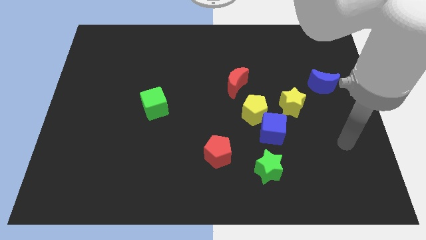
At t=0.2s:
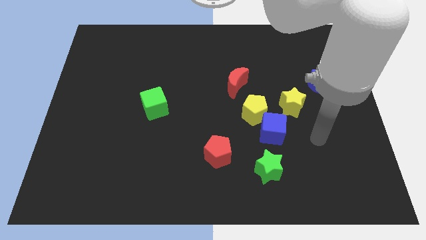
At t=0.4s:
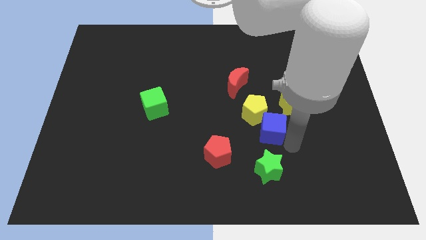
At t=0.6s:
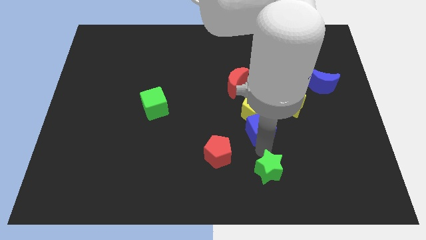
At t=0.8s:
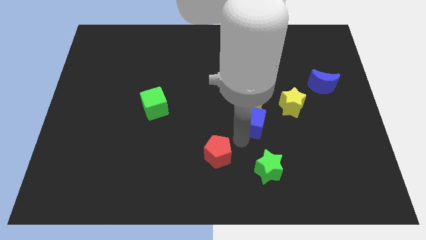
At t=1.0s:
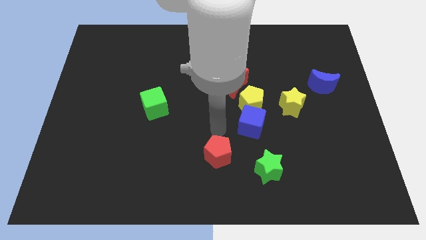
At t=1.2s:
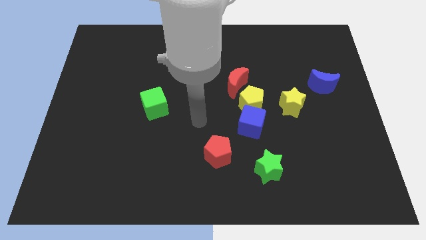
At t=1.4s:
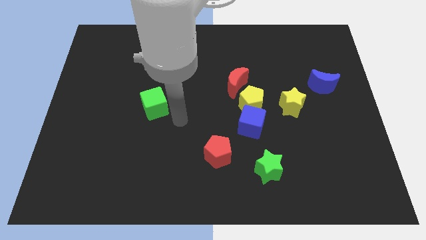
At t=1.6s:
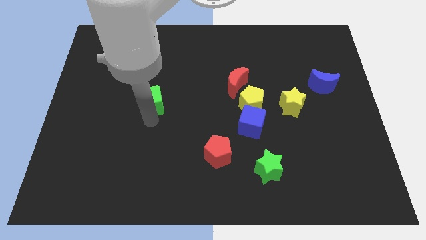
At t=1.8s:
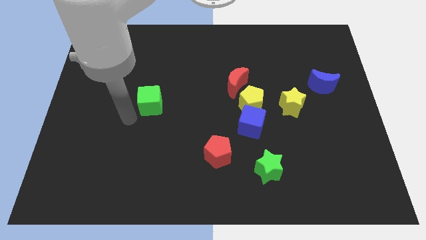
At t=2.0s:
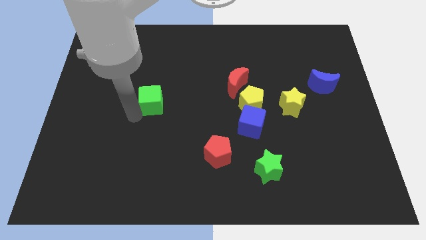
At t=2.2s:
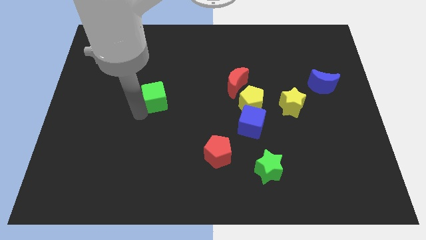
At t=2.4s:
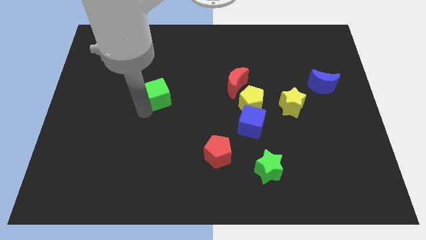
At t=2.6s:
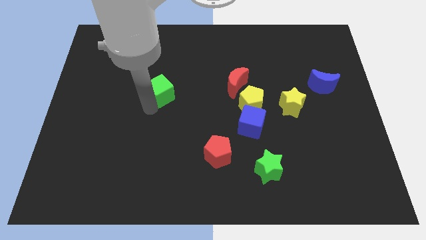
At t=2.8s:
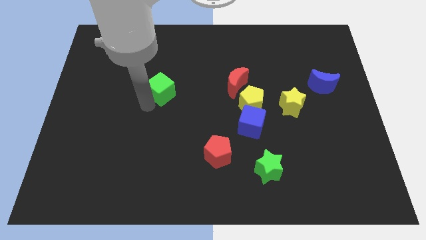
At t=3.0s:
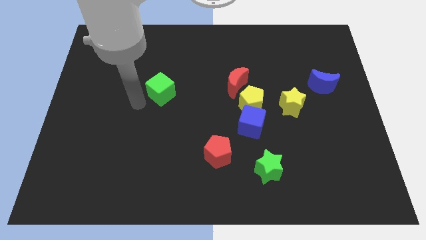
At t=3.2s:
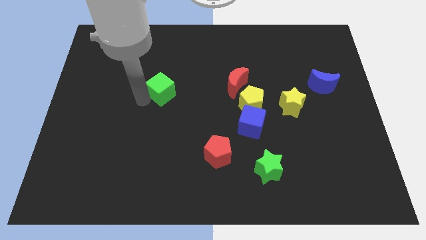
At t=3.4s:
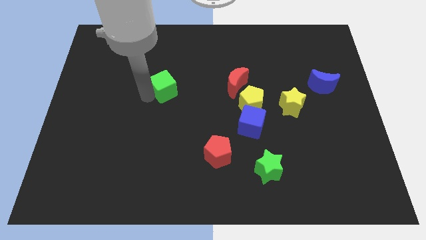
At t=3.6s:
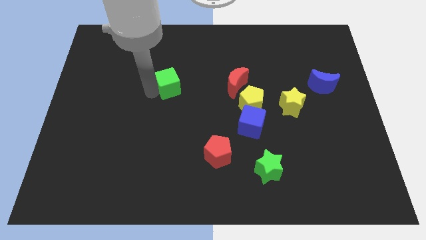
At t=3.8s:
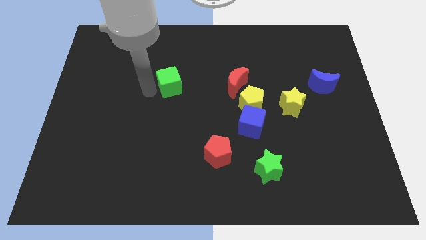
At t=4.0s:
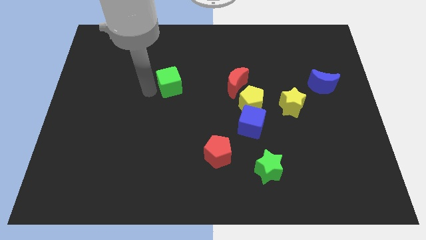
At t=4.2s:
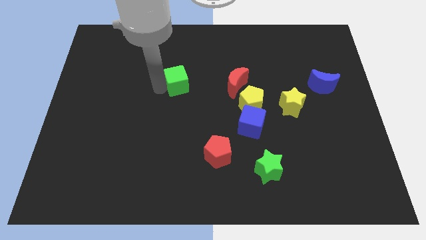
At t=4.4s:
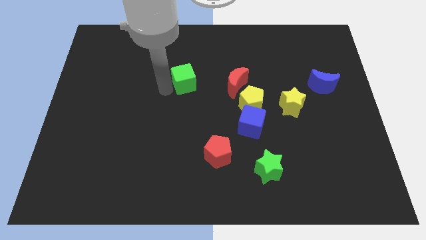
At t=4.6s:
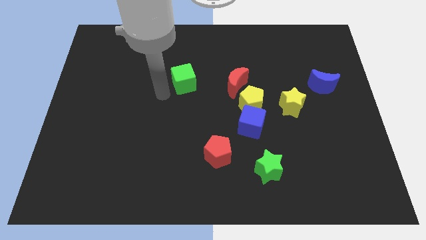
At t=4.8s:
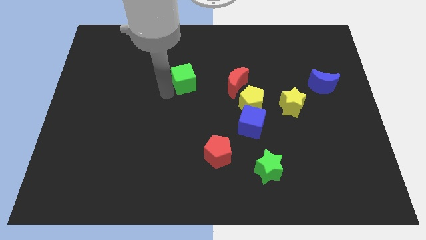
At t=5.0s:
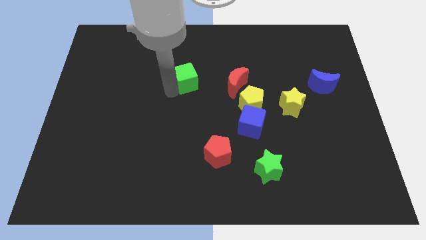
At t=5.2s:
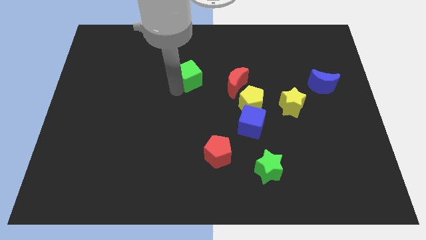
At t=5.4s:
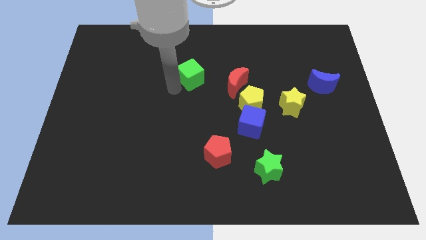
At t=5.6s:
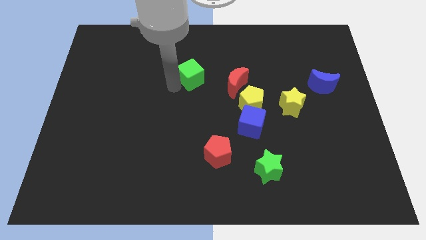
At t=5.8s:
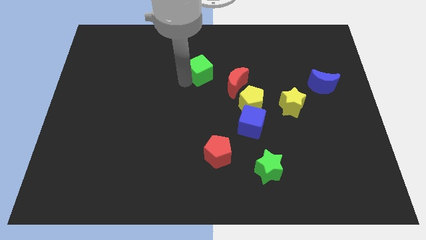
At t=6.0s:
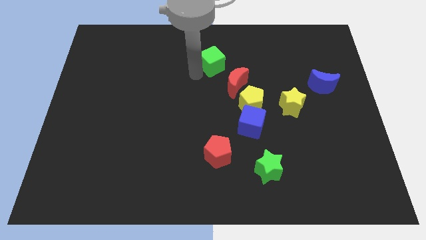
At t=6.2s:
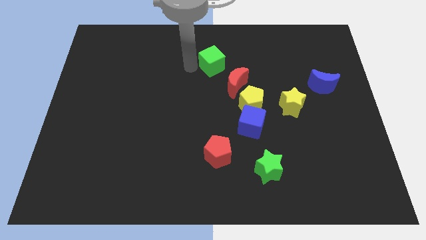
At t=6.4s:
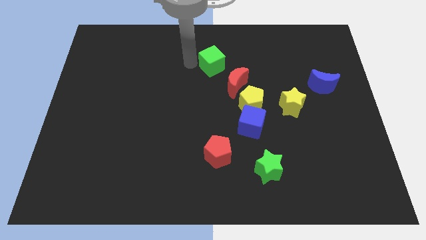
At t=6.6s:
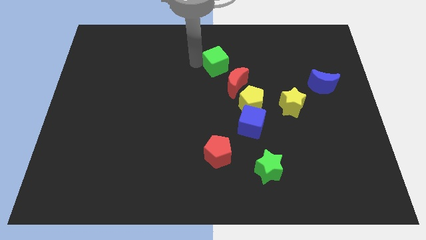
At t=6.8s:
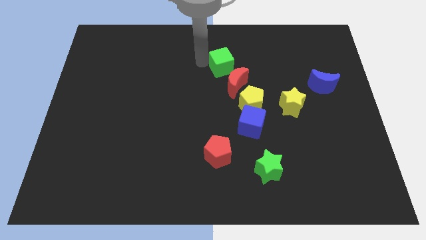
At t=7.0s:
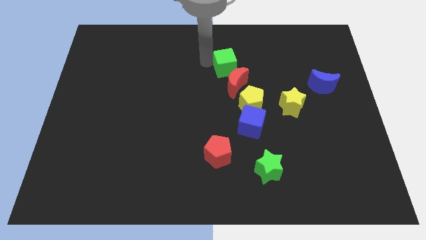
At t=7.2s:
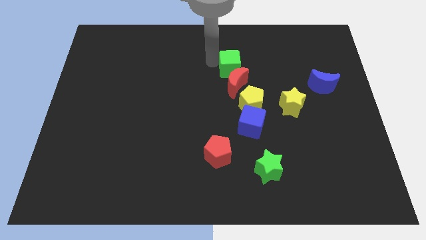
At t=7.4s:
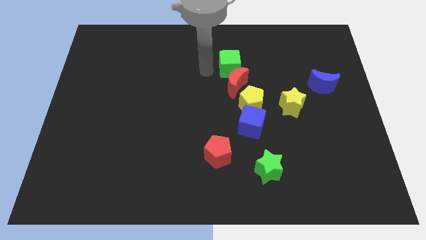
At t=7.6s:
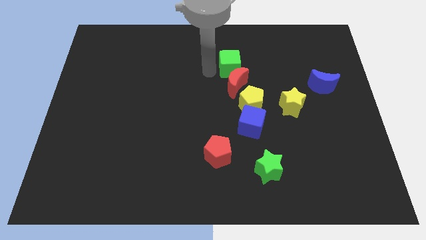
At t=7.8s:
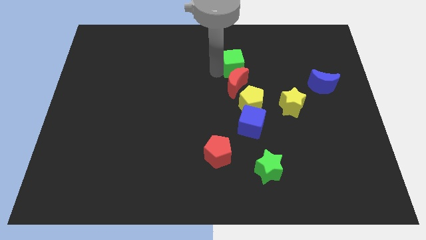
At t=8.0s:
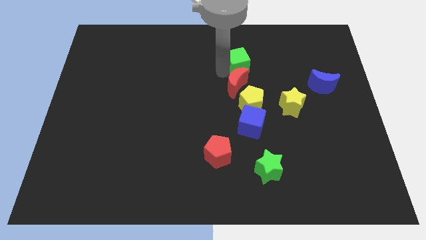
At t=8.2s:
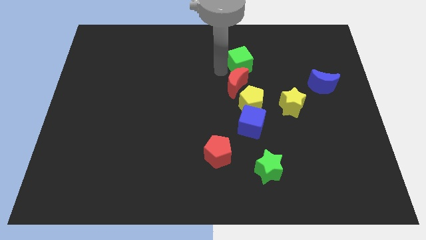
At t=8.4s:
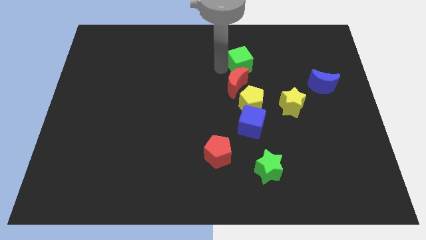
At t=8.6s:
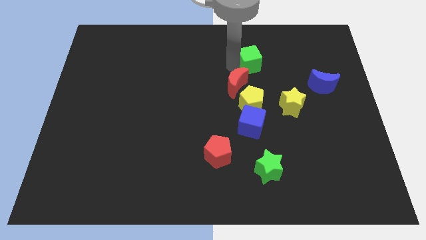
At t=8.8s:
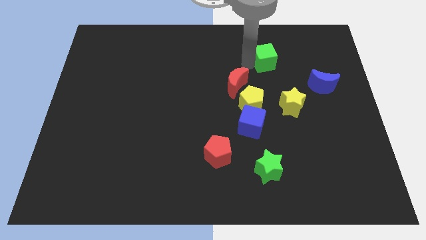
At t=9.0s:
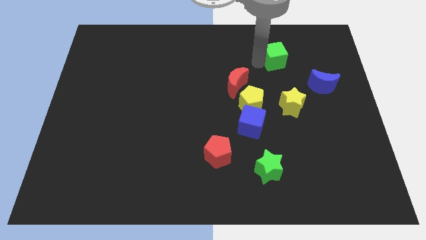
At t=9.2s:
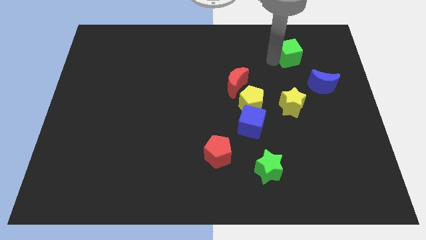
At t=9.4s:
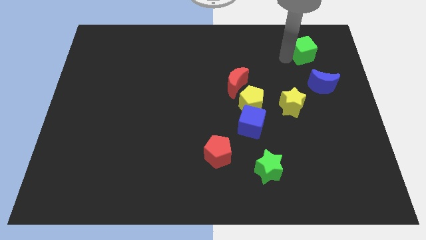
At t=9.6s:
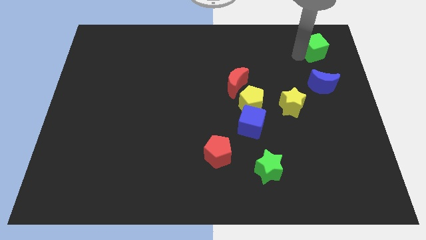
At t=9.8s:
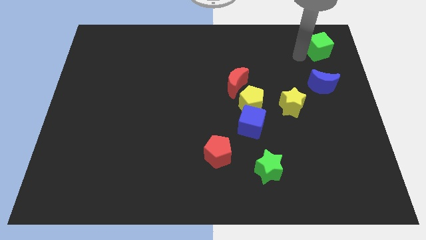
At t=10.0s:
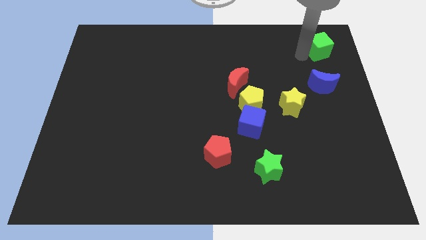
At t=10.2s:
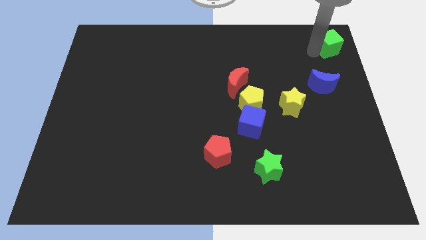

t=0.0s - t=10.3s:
slide the green cube to the top right of the board
